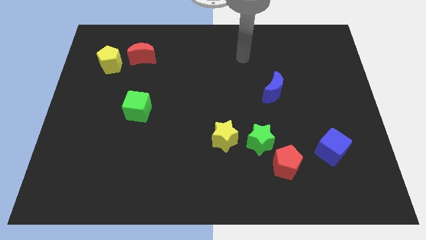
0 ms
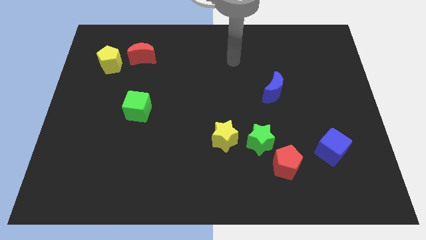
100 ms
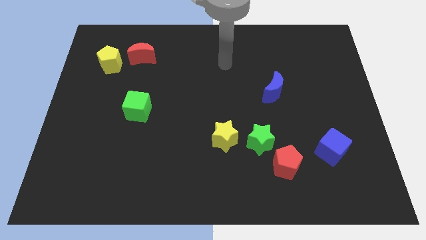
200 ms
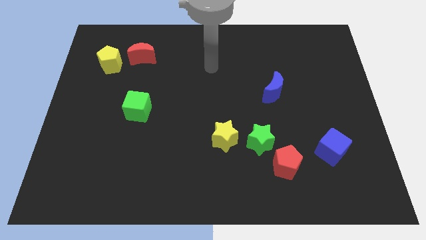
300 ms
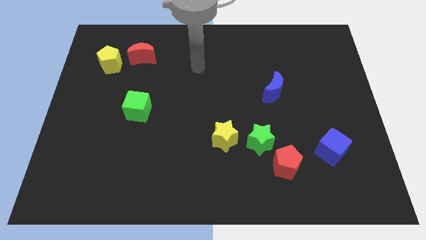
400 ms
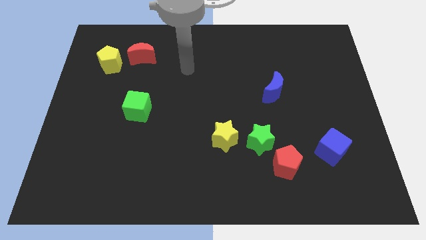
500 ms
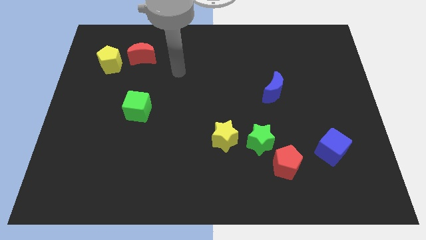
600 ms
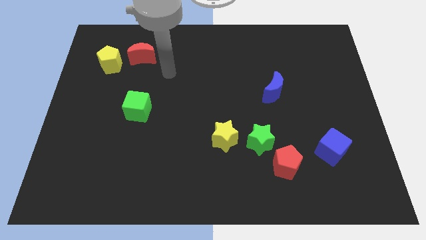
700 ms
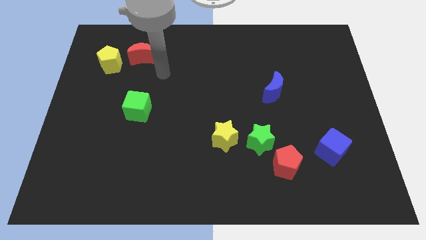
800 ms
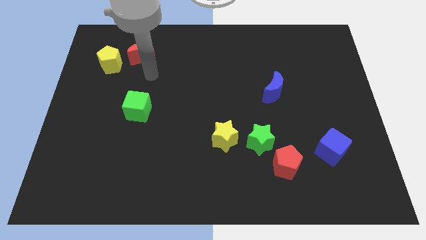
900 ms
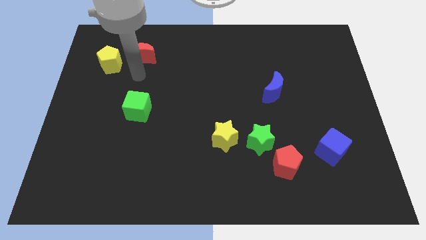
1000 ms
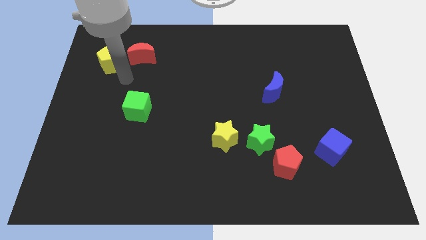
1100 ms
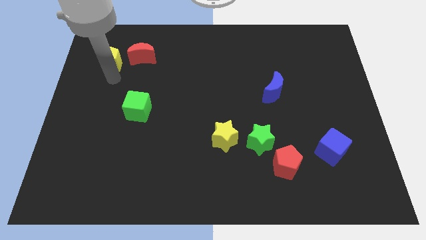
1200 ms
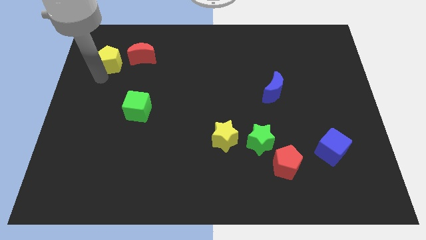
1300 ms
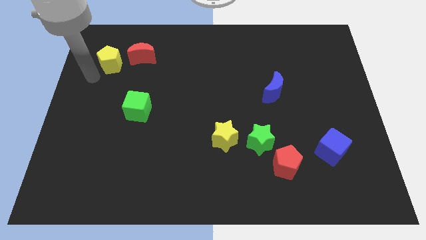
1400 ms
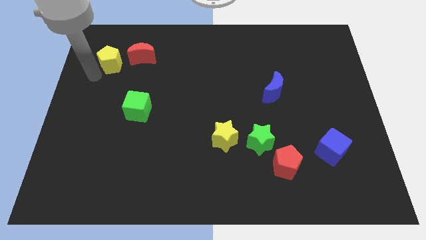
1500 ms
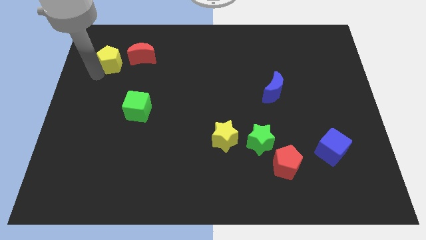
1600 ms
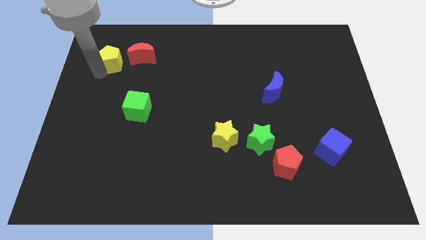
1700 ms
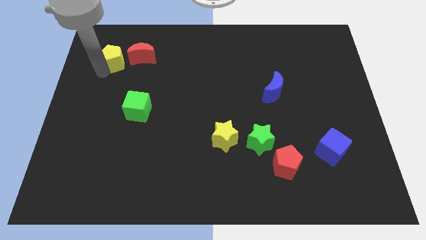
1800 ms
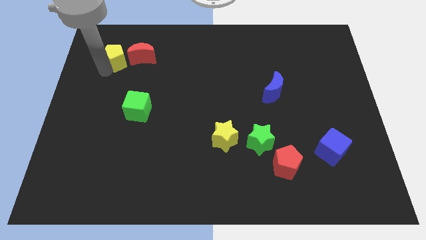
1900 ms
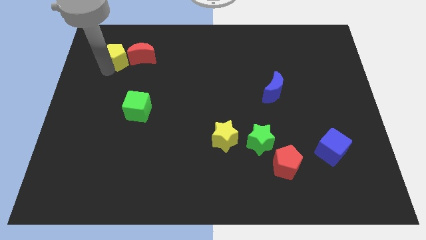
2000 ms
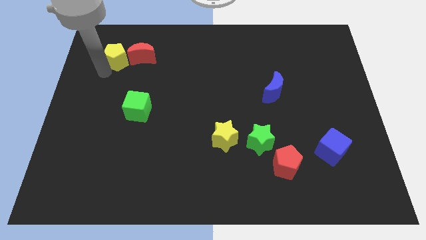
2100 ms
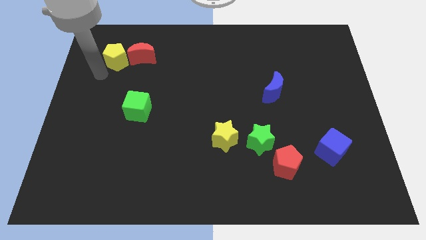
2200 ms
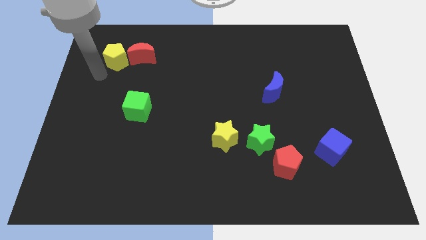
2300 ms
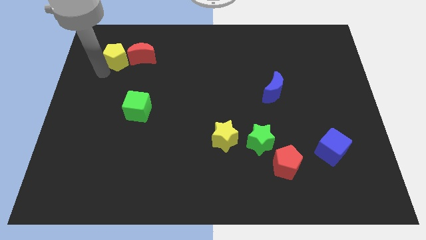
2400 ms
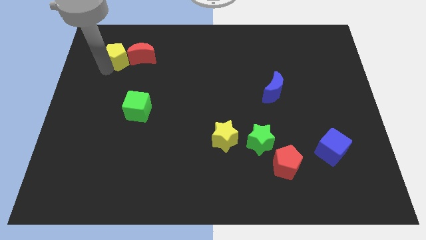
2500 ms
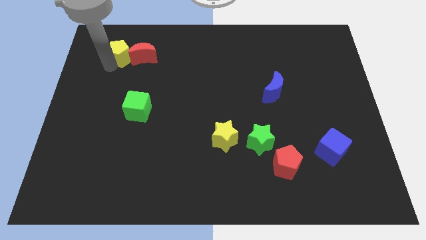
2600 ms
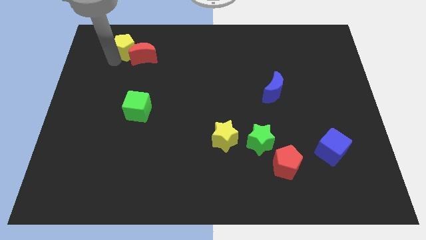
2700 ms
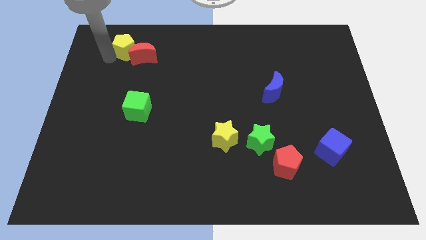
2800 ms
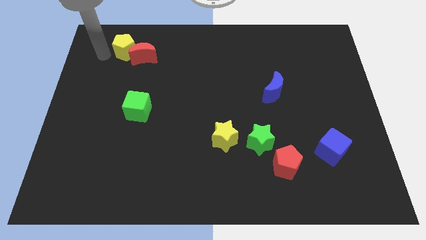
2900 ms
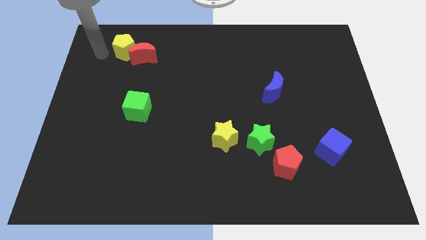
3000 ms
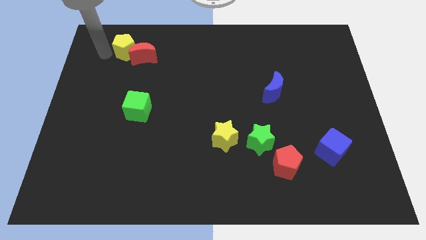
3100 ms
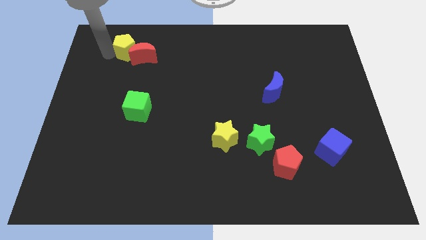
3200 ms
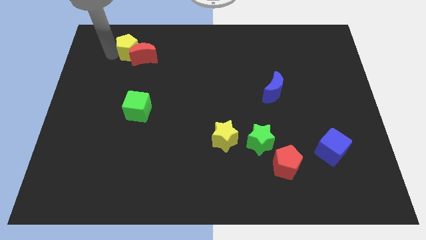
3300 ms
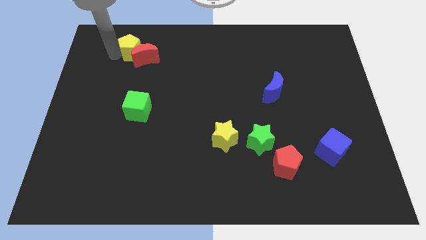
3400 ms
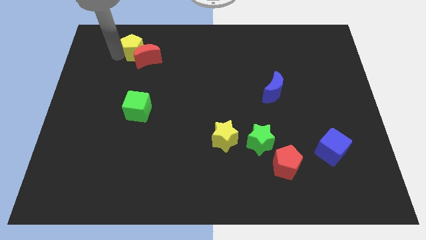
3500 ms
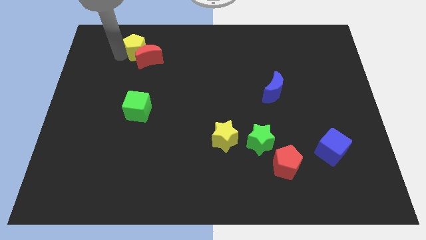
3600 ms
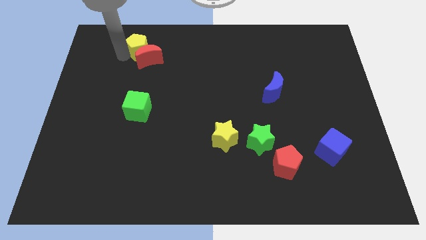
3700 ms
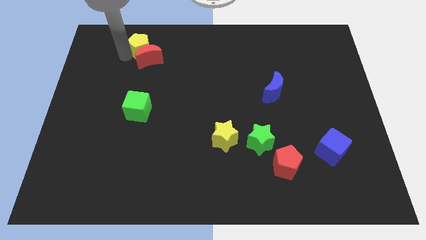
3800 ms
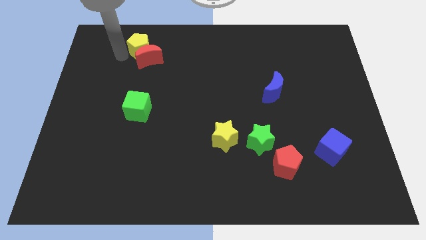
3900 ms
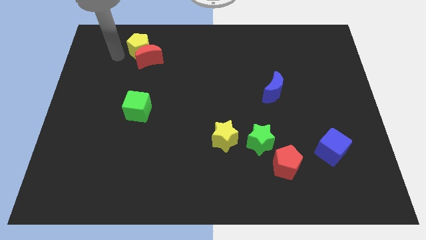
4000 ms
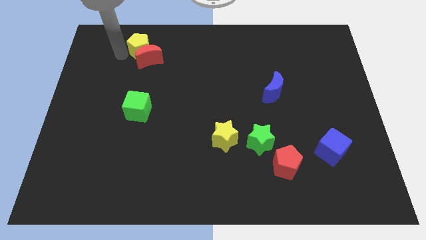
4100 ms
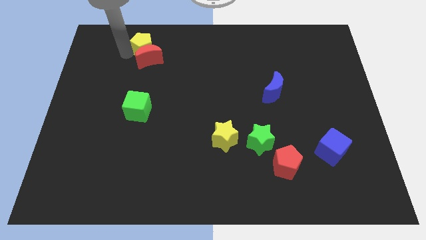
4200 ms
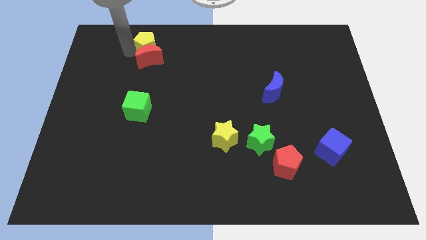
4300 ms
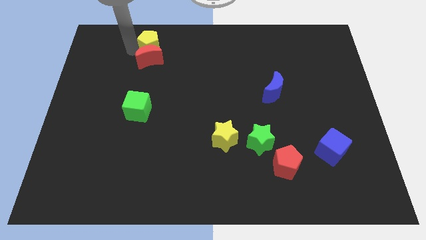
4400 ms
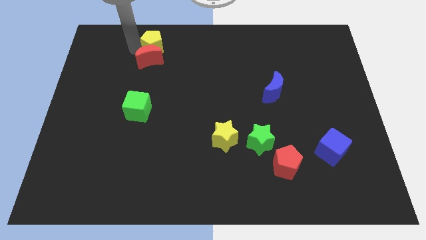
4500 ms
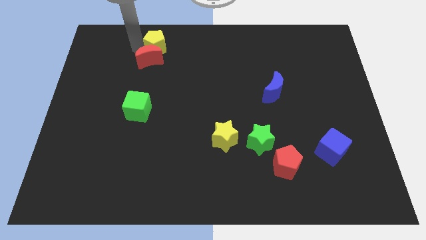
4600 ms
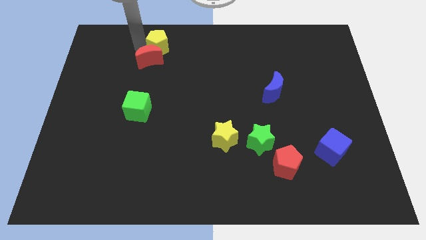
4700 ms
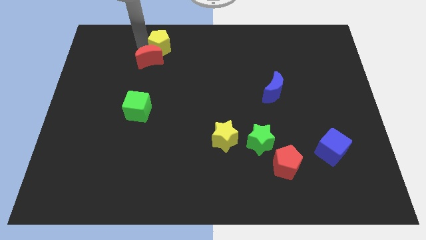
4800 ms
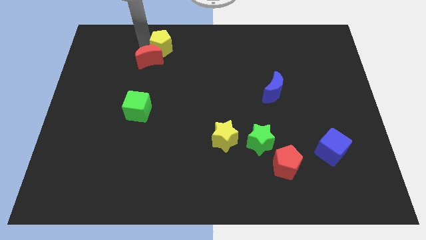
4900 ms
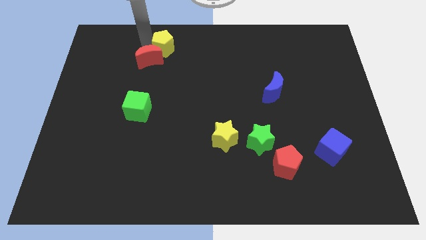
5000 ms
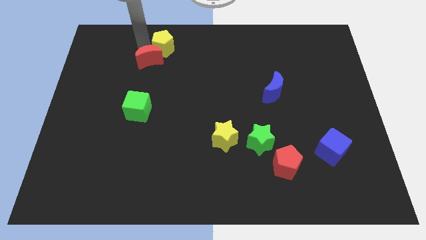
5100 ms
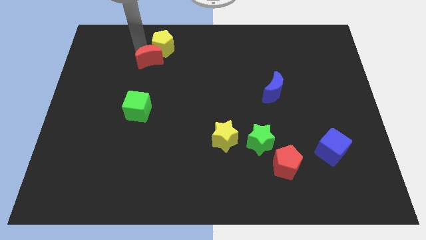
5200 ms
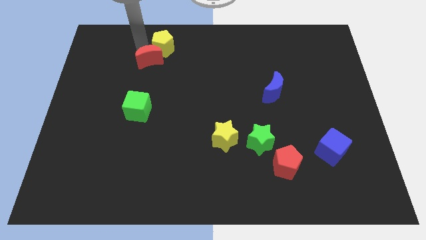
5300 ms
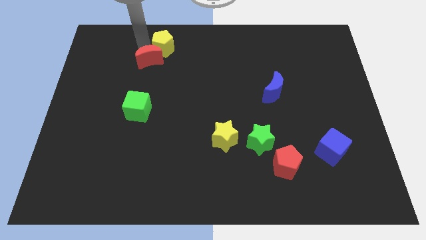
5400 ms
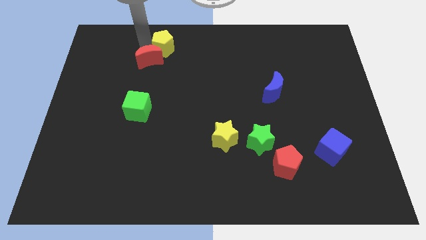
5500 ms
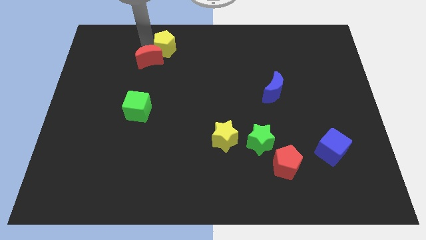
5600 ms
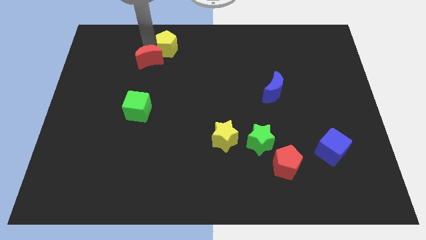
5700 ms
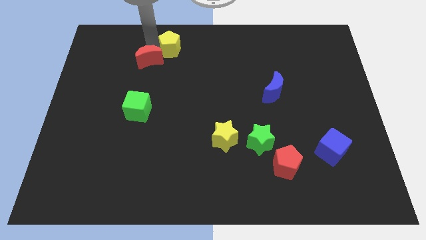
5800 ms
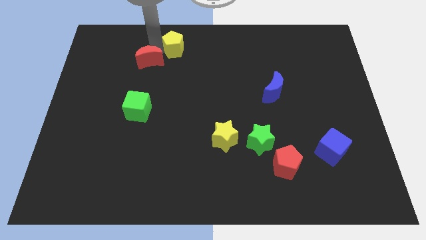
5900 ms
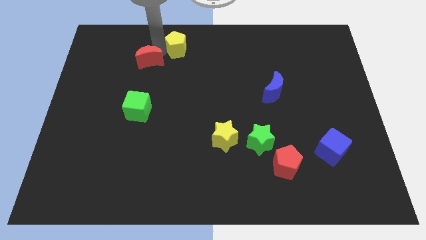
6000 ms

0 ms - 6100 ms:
push the yellow pentagon to the top side

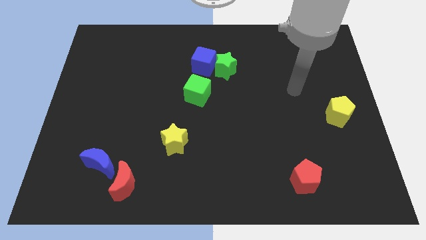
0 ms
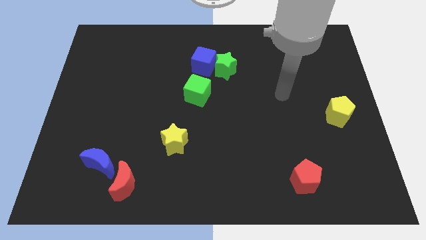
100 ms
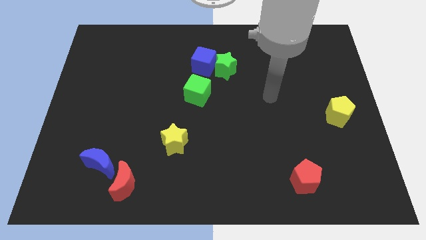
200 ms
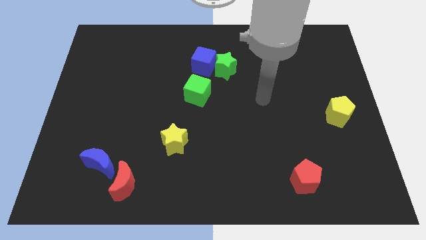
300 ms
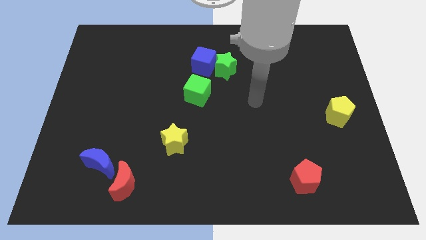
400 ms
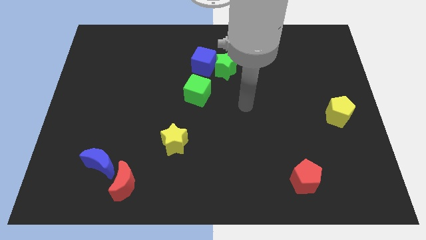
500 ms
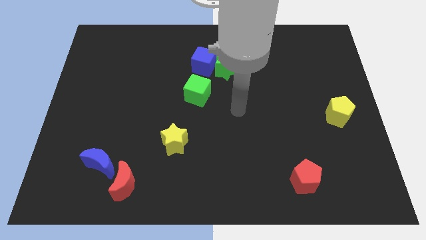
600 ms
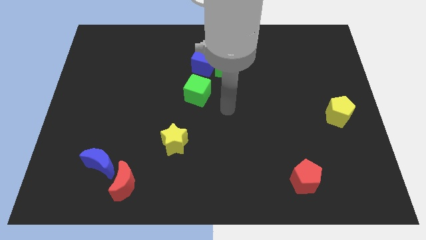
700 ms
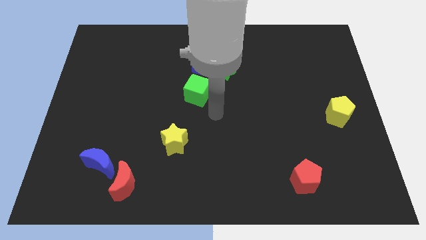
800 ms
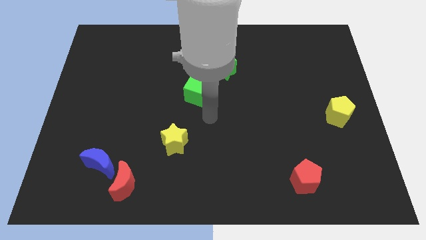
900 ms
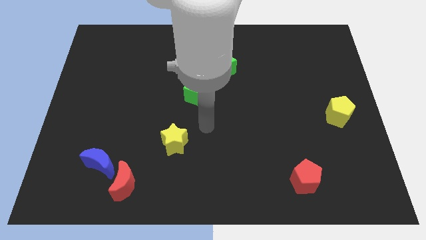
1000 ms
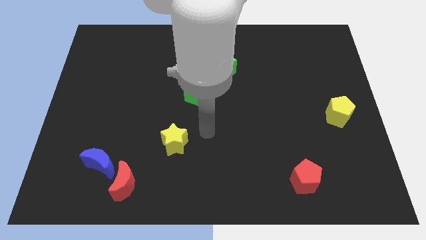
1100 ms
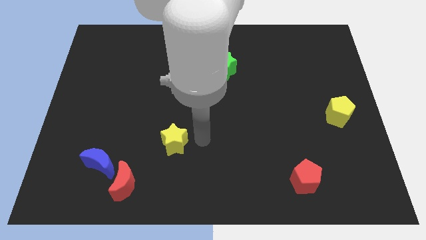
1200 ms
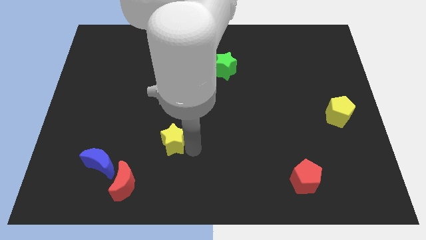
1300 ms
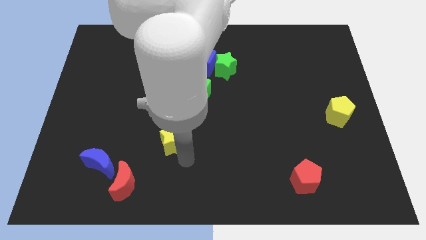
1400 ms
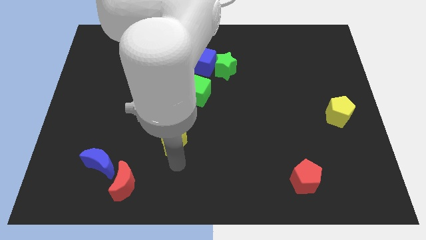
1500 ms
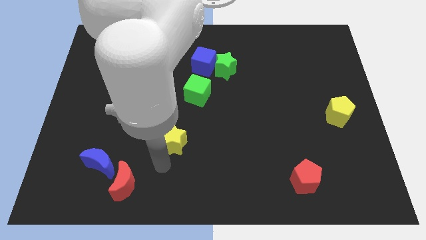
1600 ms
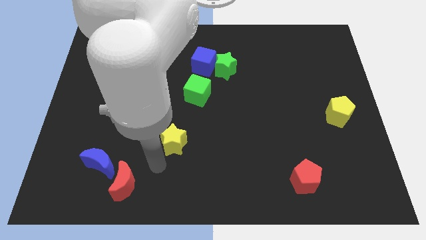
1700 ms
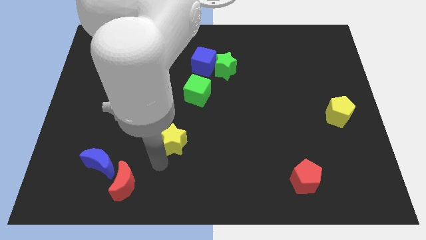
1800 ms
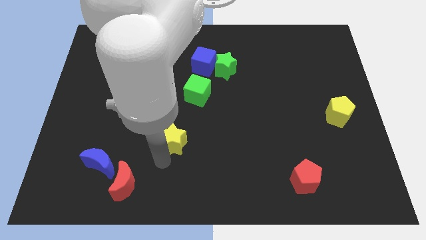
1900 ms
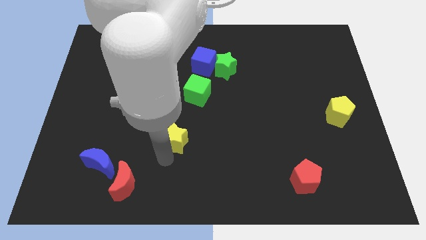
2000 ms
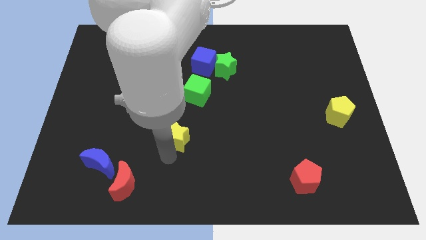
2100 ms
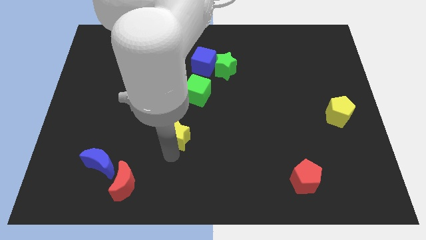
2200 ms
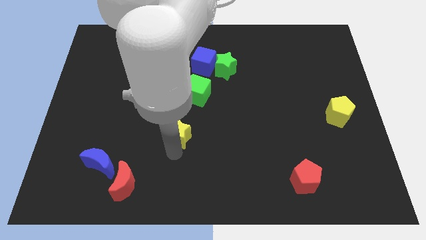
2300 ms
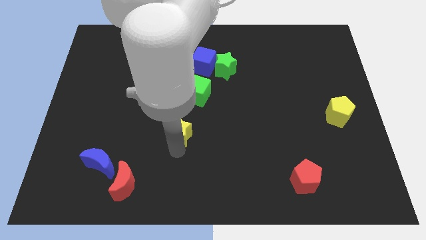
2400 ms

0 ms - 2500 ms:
push the yellow star to the middle of the board
